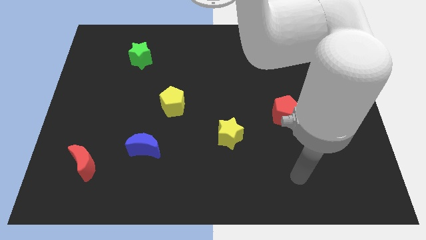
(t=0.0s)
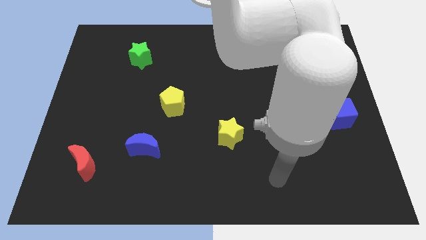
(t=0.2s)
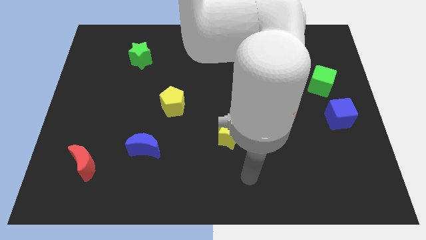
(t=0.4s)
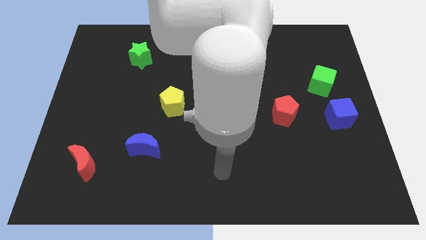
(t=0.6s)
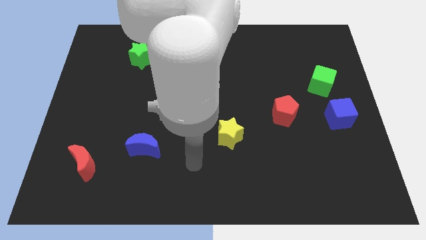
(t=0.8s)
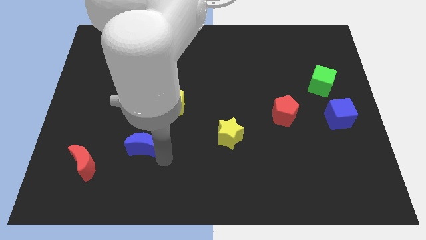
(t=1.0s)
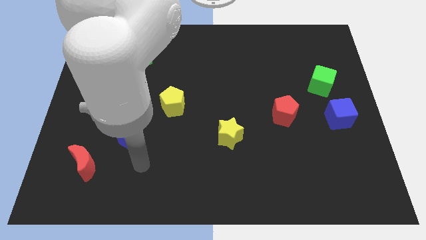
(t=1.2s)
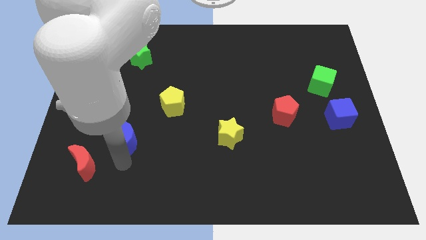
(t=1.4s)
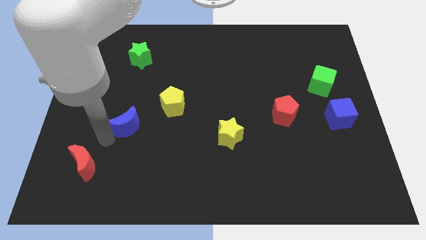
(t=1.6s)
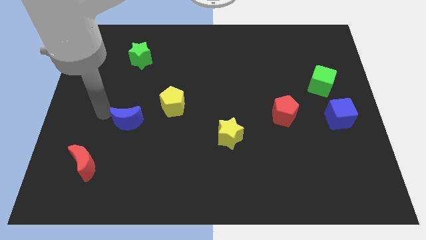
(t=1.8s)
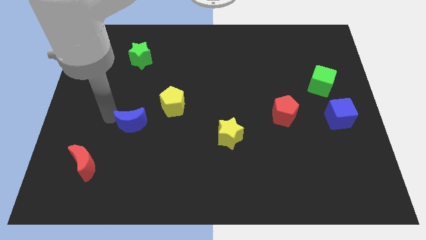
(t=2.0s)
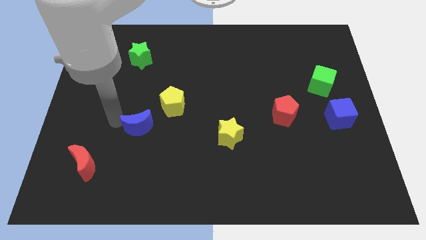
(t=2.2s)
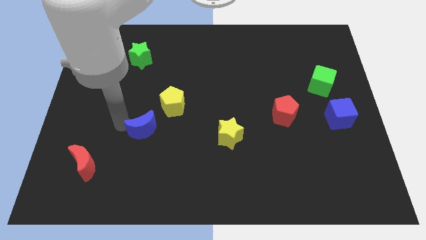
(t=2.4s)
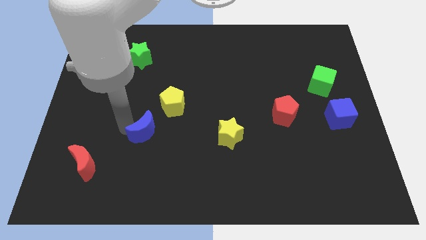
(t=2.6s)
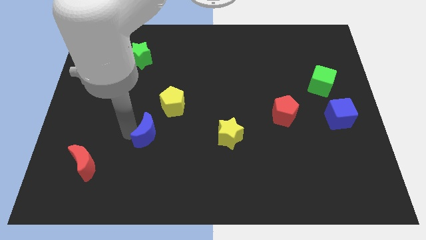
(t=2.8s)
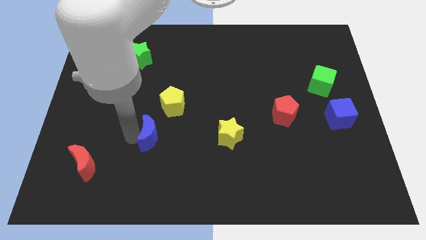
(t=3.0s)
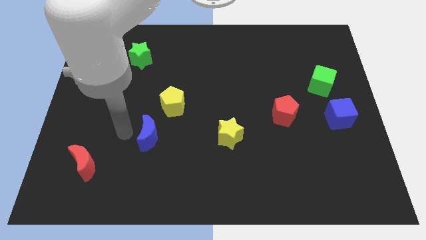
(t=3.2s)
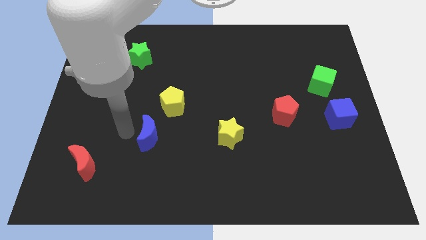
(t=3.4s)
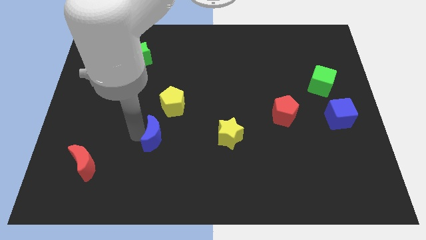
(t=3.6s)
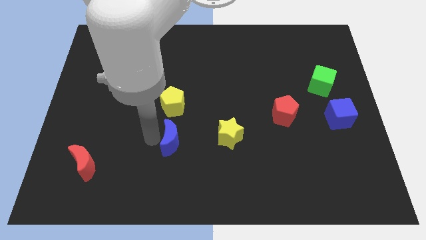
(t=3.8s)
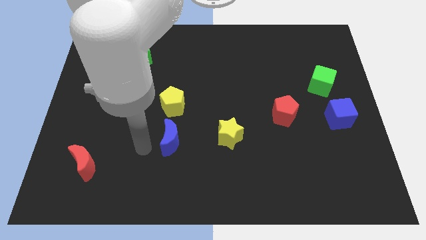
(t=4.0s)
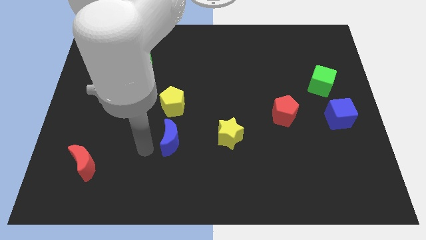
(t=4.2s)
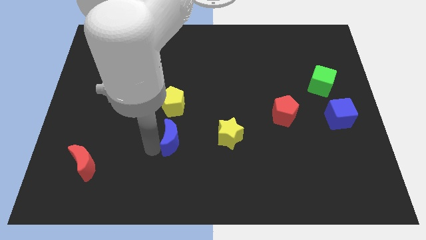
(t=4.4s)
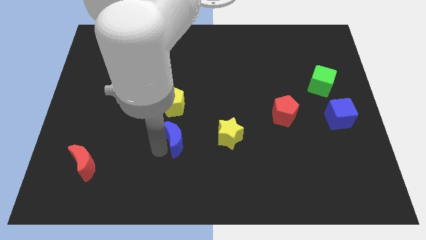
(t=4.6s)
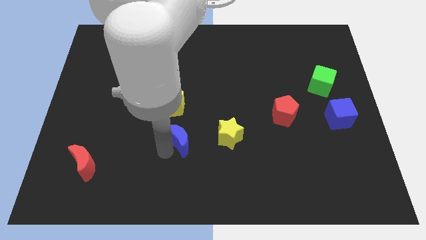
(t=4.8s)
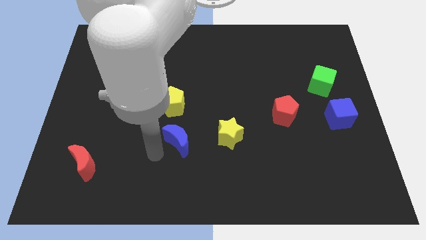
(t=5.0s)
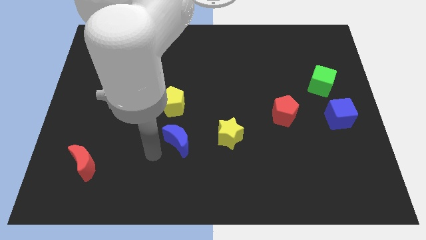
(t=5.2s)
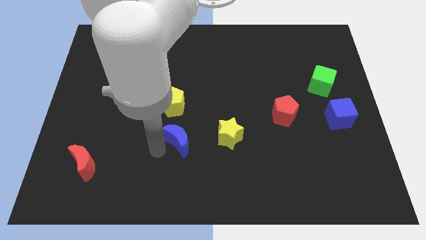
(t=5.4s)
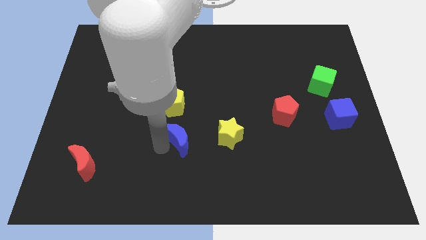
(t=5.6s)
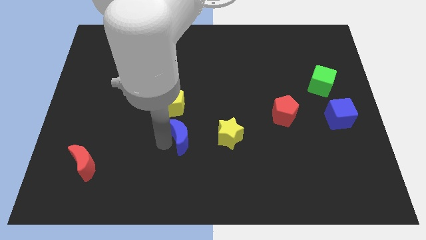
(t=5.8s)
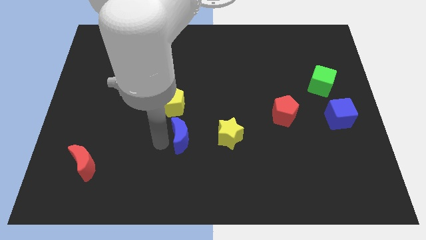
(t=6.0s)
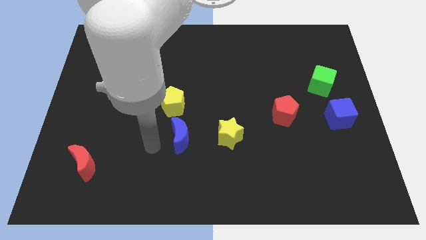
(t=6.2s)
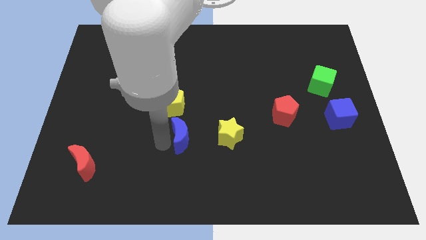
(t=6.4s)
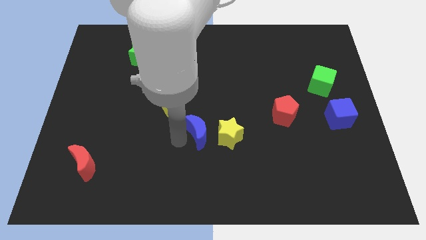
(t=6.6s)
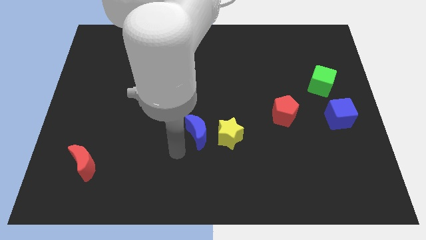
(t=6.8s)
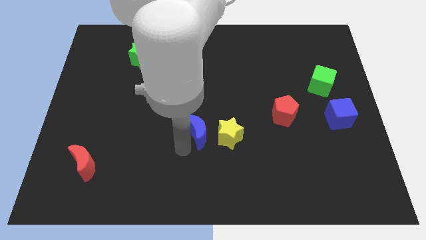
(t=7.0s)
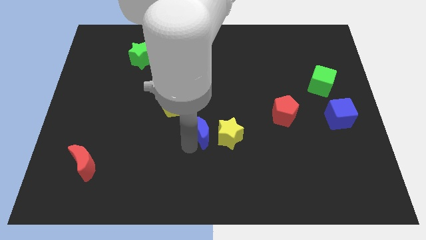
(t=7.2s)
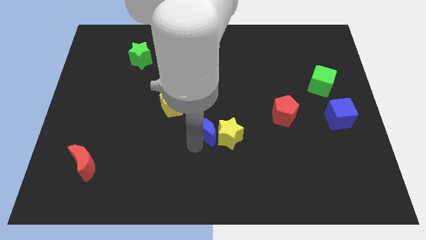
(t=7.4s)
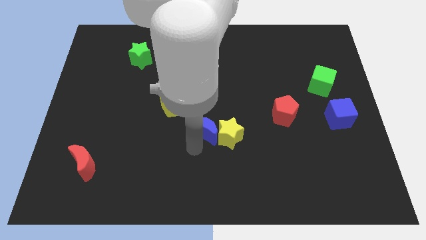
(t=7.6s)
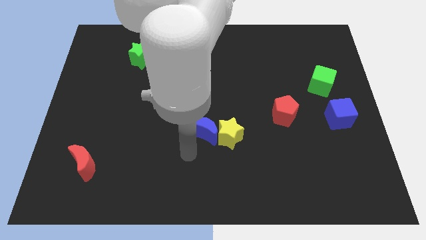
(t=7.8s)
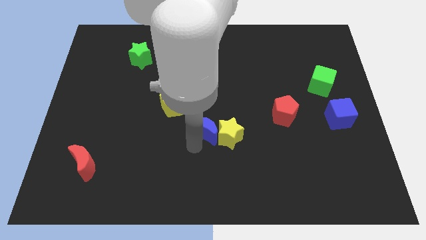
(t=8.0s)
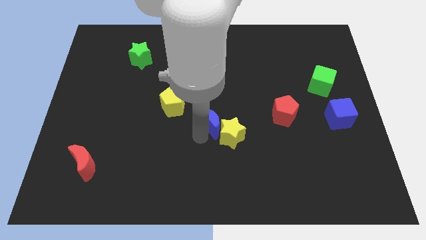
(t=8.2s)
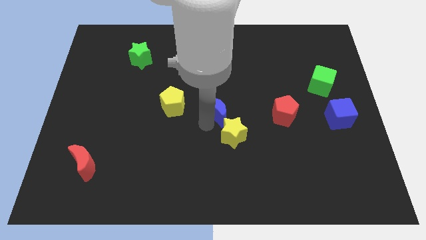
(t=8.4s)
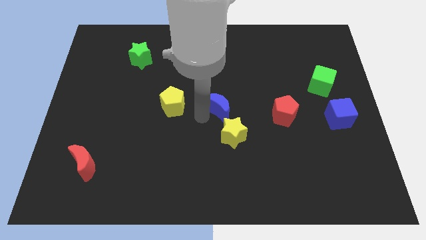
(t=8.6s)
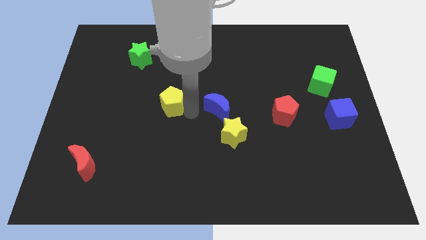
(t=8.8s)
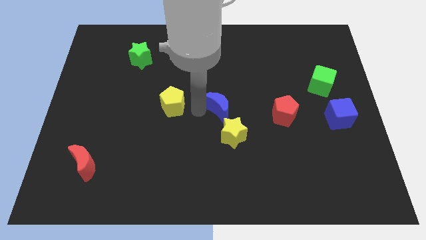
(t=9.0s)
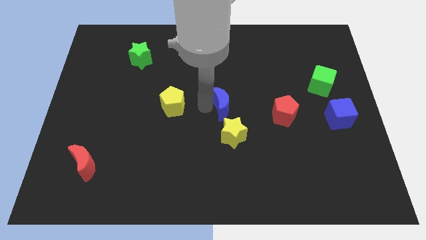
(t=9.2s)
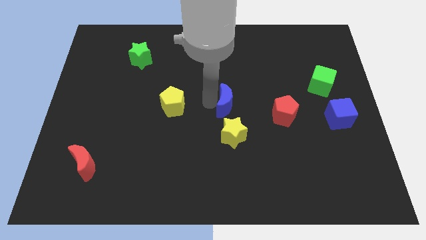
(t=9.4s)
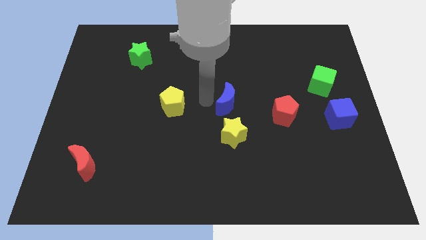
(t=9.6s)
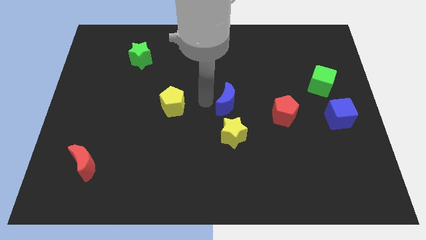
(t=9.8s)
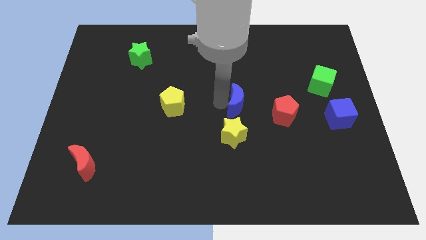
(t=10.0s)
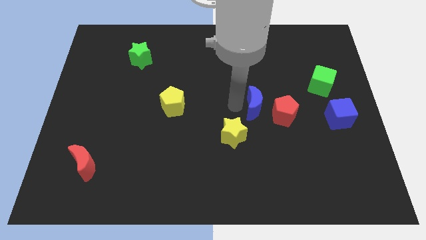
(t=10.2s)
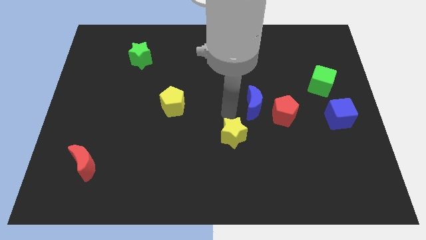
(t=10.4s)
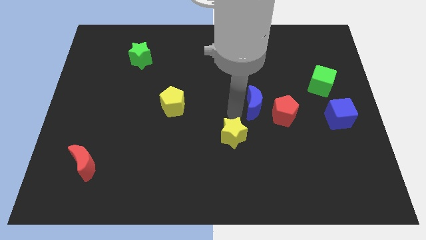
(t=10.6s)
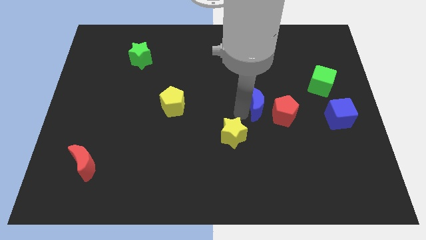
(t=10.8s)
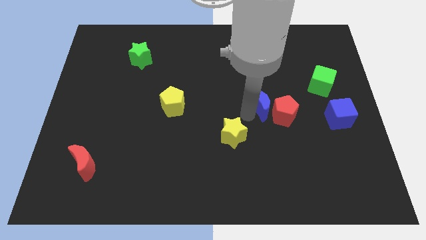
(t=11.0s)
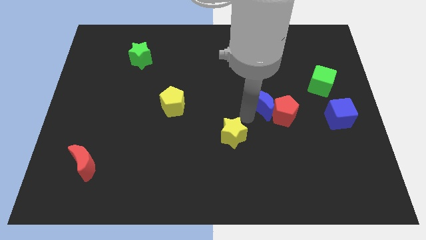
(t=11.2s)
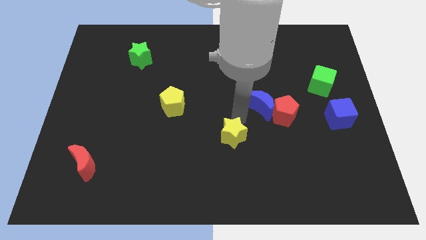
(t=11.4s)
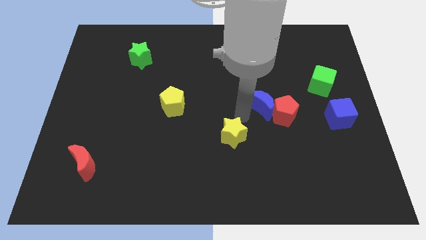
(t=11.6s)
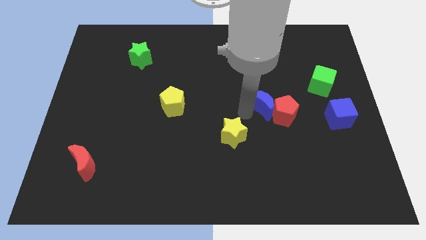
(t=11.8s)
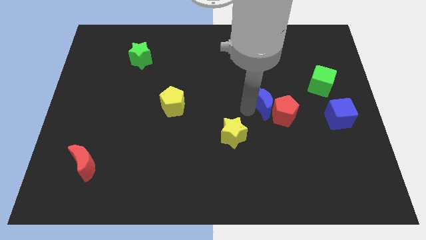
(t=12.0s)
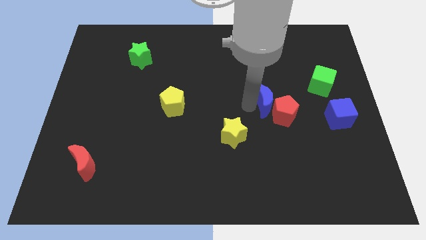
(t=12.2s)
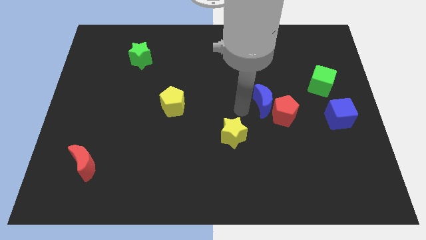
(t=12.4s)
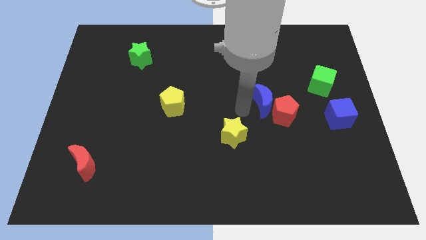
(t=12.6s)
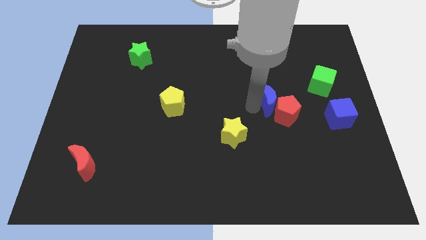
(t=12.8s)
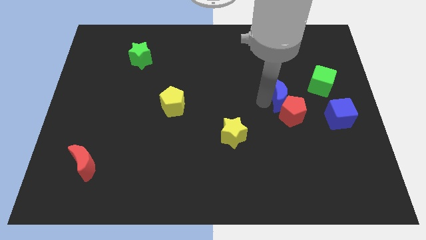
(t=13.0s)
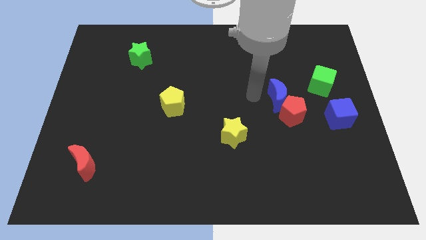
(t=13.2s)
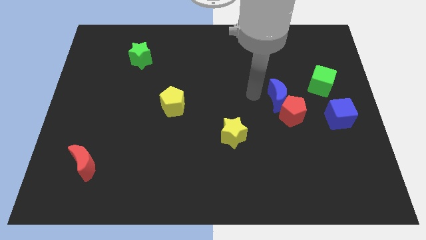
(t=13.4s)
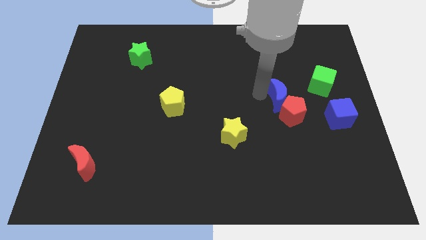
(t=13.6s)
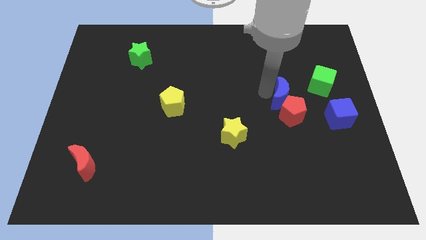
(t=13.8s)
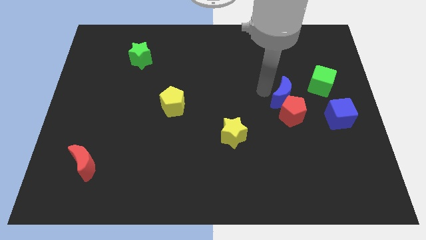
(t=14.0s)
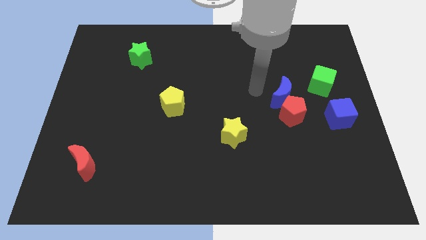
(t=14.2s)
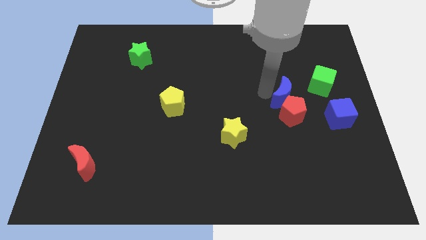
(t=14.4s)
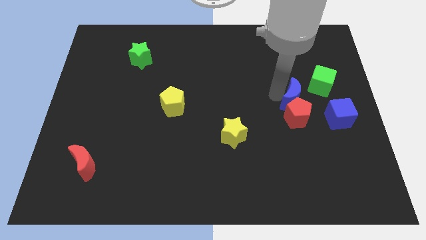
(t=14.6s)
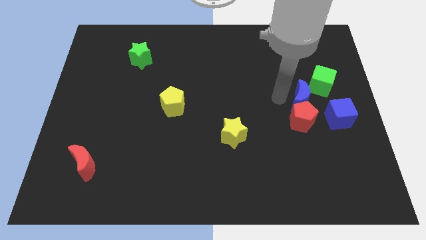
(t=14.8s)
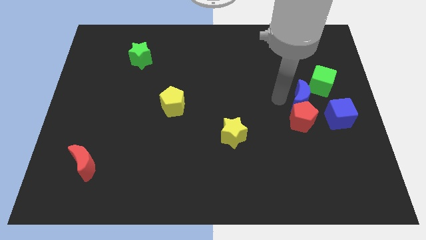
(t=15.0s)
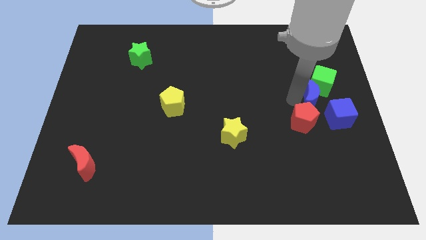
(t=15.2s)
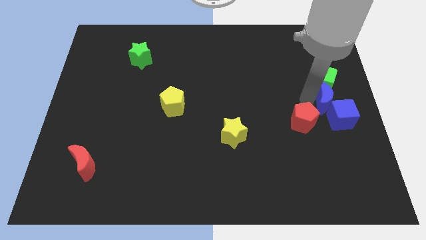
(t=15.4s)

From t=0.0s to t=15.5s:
move the blue moon to the right side
